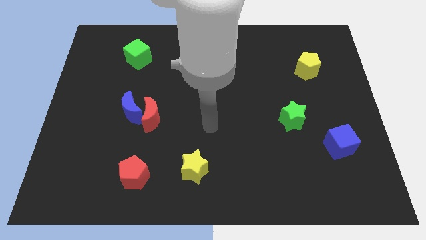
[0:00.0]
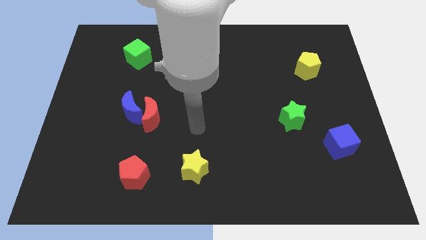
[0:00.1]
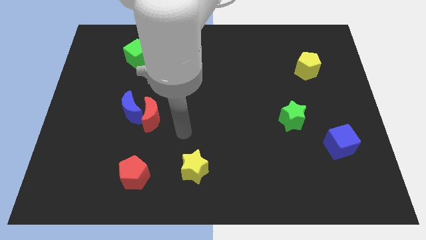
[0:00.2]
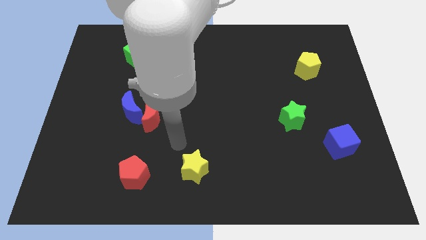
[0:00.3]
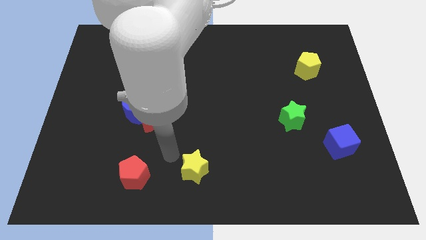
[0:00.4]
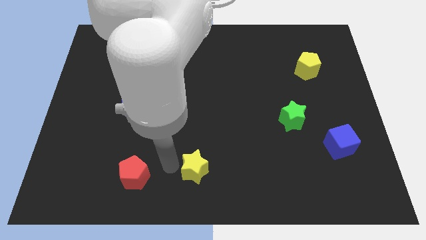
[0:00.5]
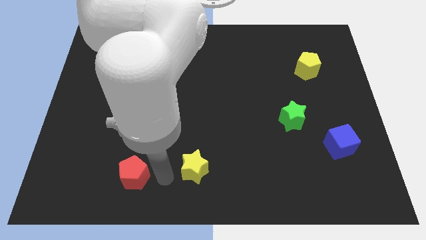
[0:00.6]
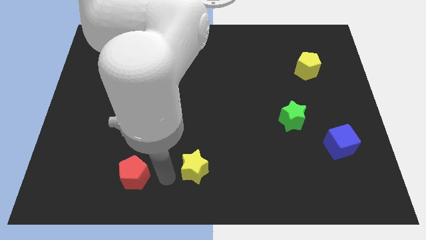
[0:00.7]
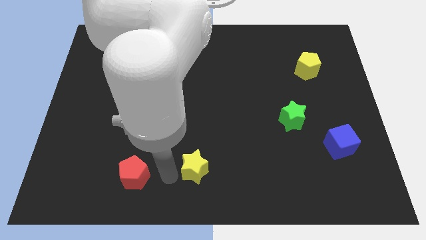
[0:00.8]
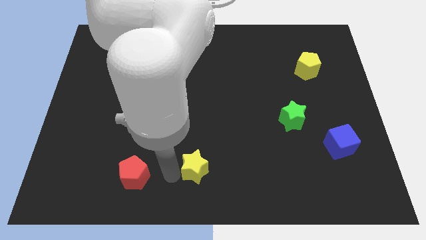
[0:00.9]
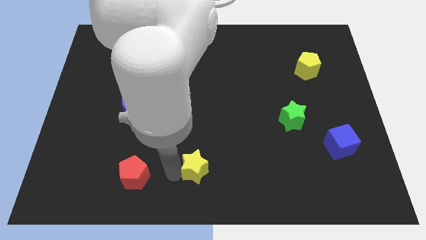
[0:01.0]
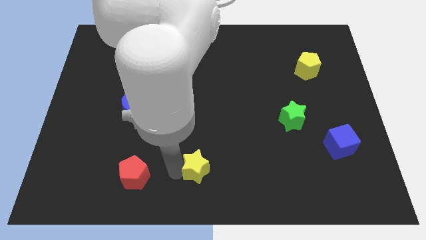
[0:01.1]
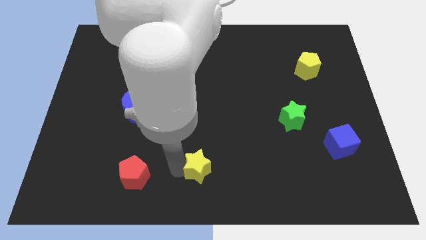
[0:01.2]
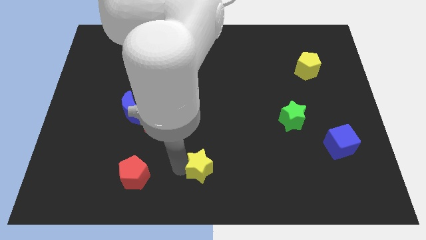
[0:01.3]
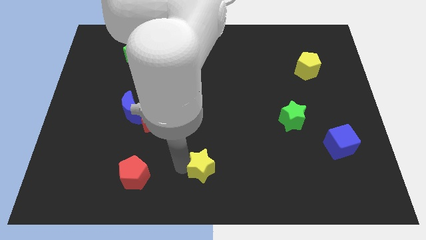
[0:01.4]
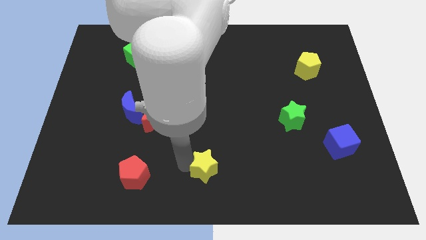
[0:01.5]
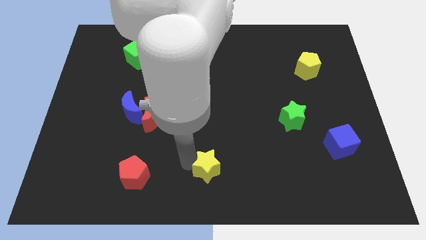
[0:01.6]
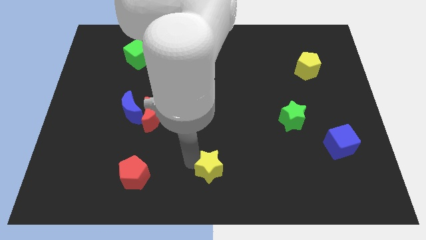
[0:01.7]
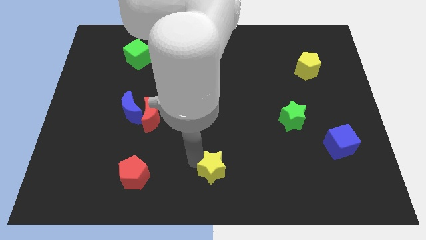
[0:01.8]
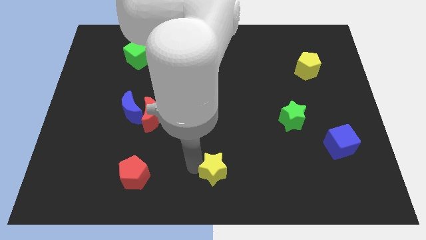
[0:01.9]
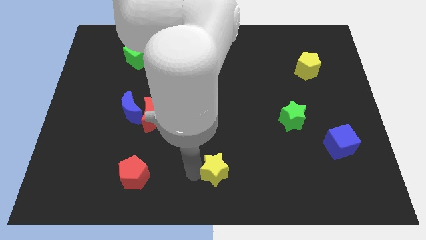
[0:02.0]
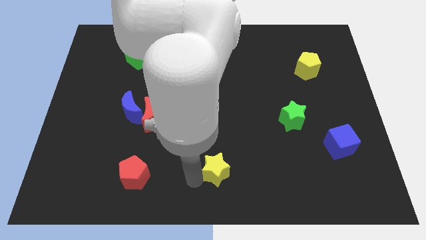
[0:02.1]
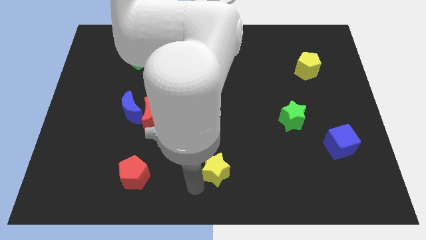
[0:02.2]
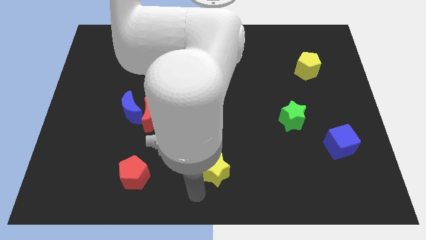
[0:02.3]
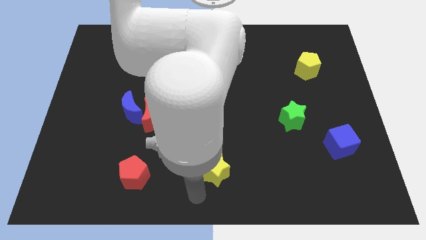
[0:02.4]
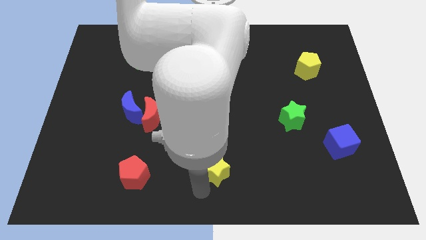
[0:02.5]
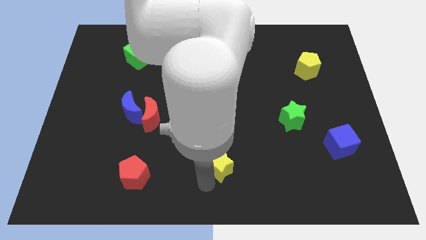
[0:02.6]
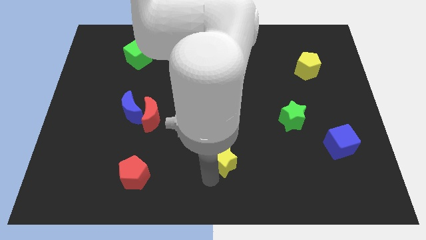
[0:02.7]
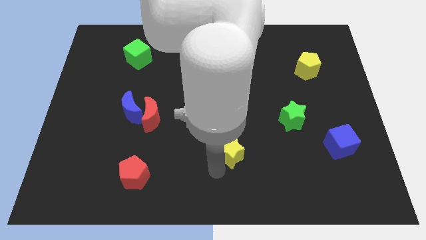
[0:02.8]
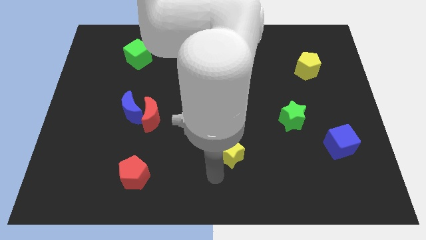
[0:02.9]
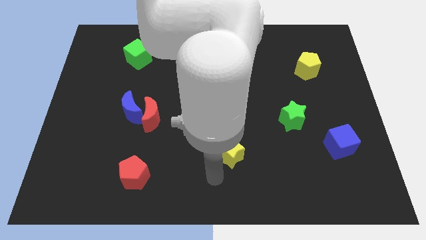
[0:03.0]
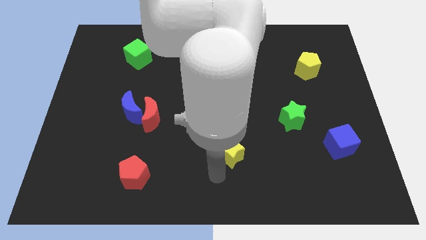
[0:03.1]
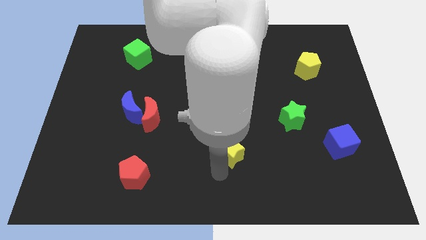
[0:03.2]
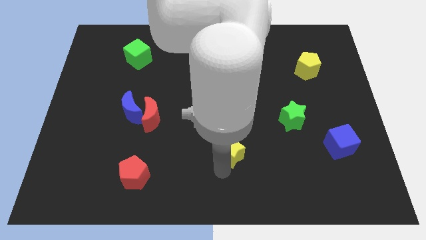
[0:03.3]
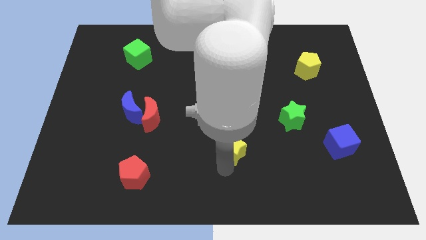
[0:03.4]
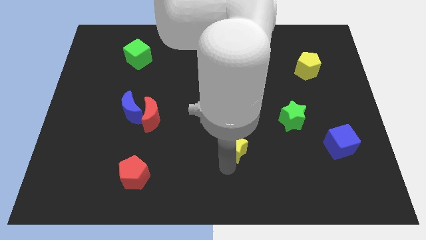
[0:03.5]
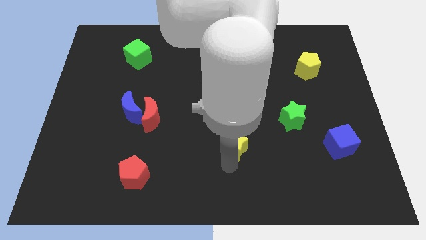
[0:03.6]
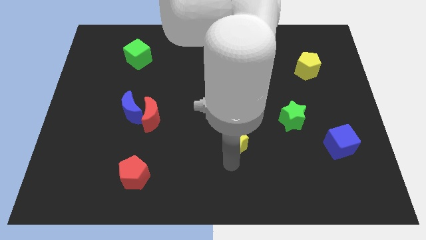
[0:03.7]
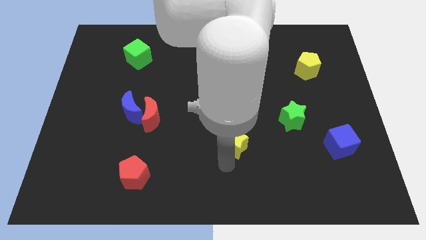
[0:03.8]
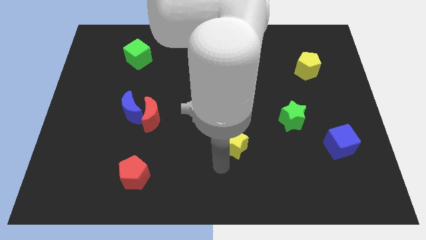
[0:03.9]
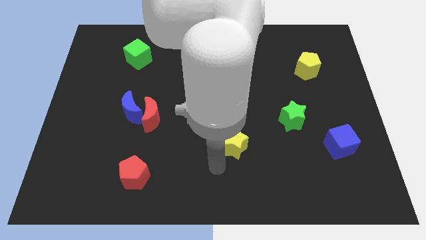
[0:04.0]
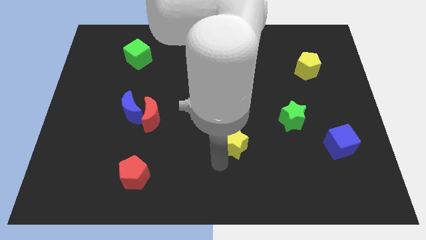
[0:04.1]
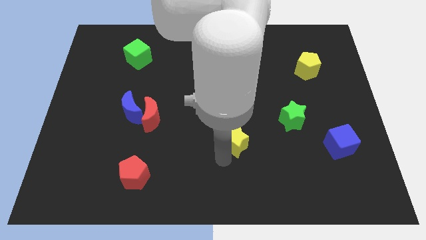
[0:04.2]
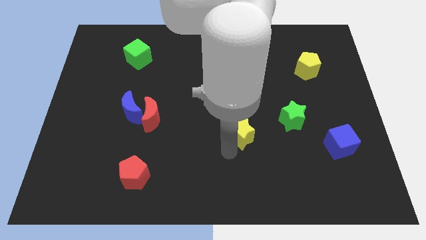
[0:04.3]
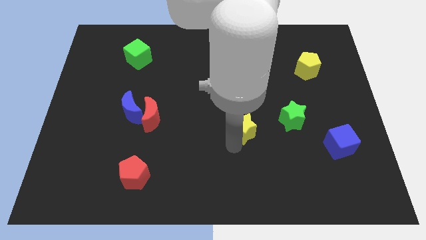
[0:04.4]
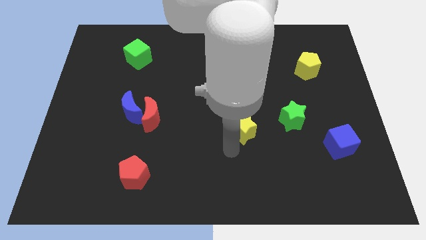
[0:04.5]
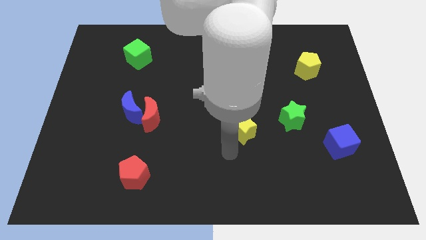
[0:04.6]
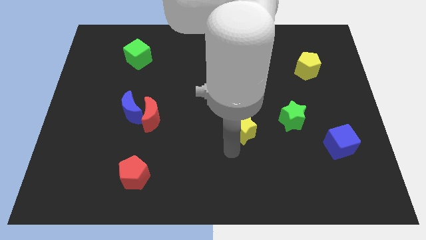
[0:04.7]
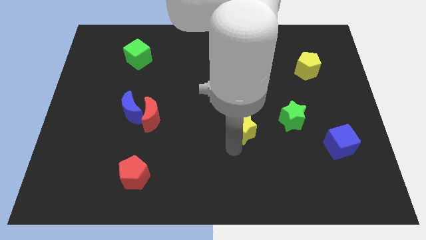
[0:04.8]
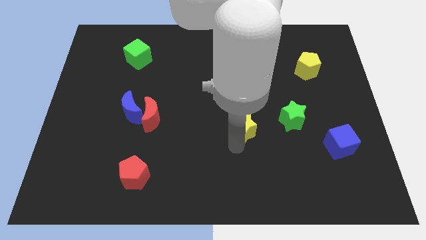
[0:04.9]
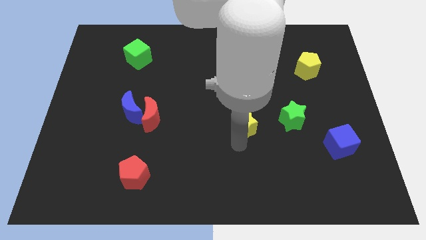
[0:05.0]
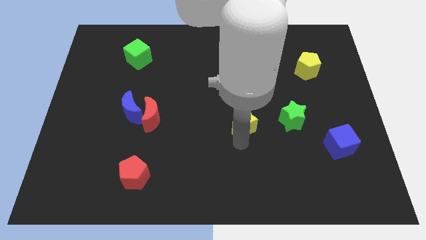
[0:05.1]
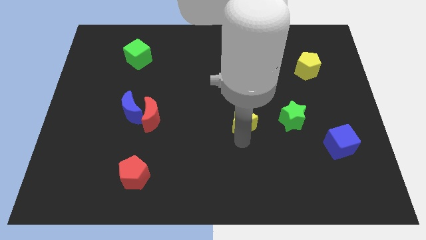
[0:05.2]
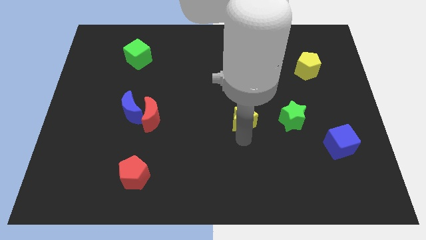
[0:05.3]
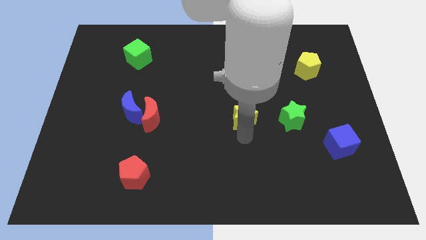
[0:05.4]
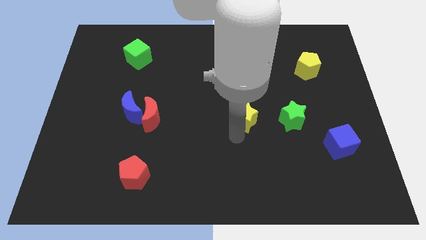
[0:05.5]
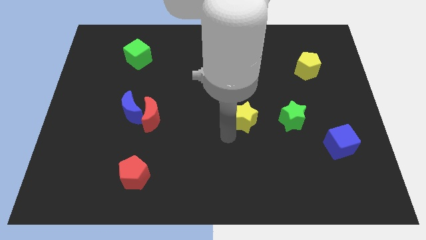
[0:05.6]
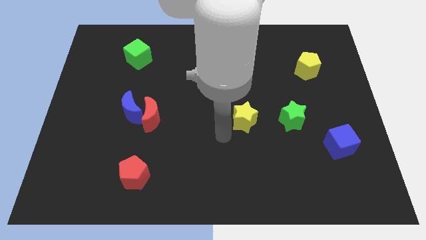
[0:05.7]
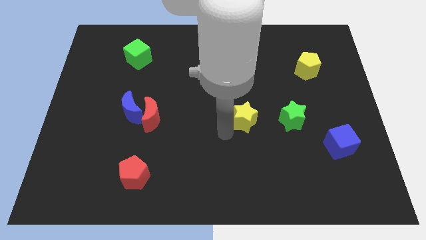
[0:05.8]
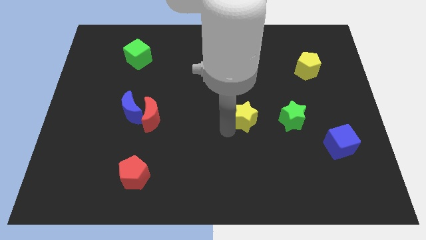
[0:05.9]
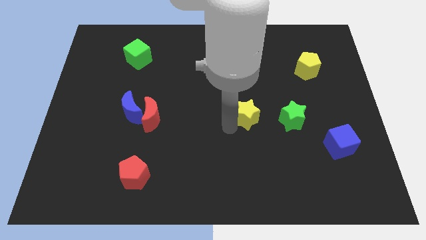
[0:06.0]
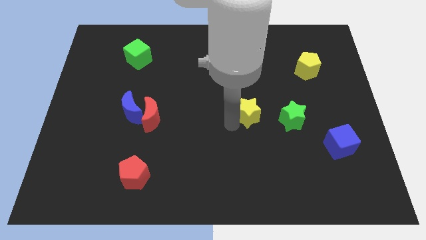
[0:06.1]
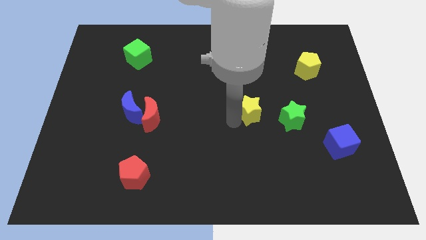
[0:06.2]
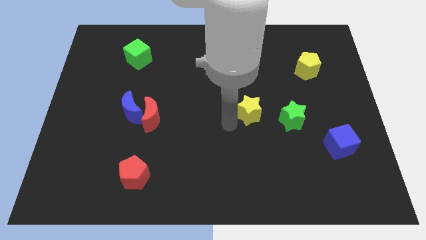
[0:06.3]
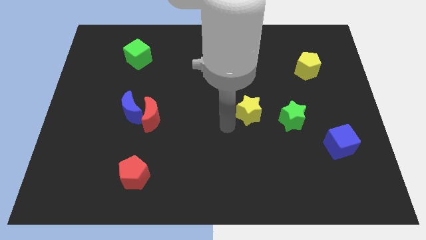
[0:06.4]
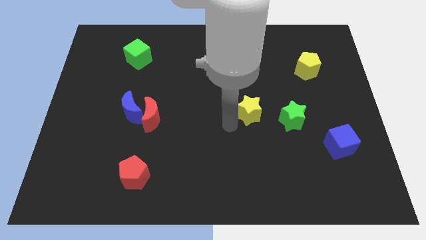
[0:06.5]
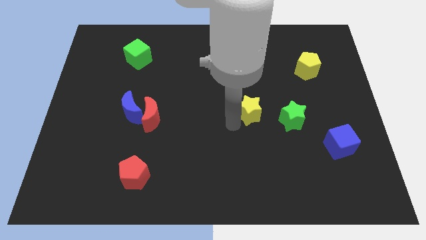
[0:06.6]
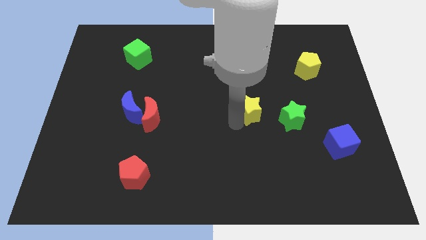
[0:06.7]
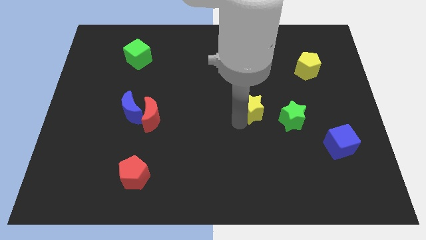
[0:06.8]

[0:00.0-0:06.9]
move the yellow star upwards and to the right diagonally

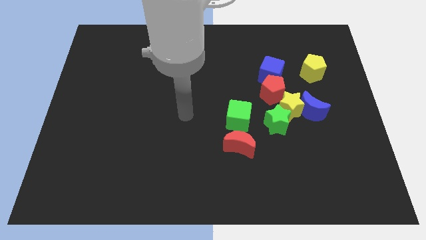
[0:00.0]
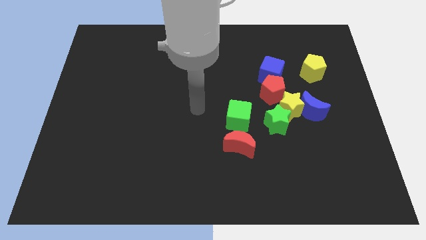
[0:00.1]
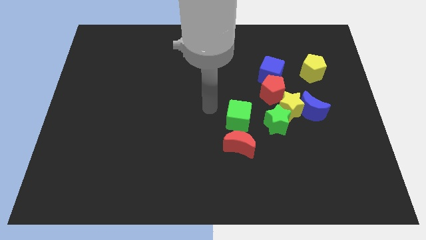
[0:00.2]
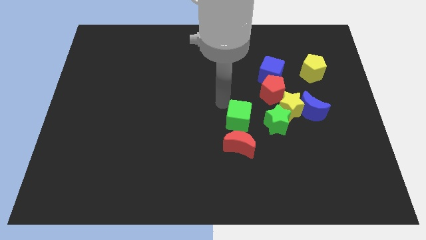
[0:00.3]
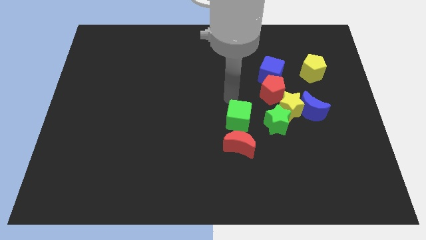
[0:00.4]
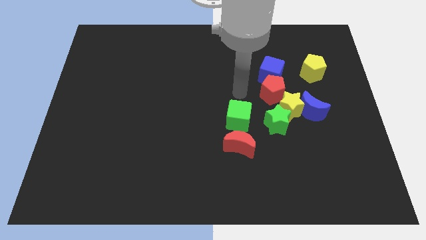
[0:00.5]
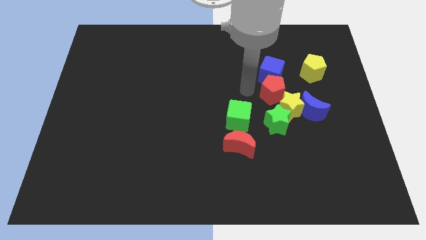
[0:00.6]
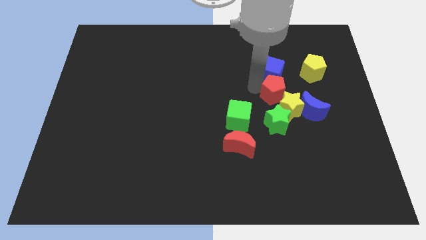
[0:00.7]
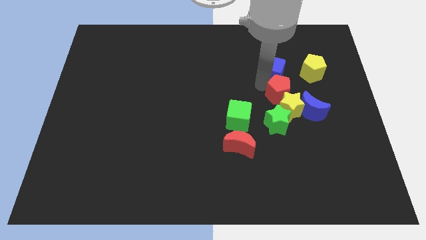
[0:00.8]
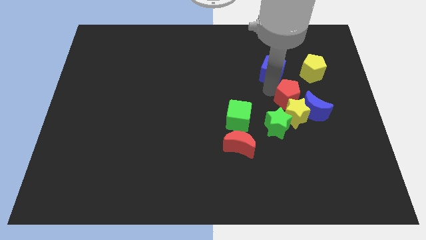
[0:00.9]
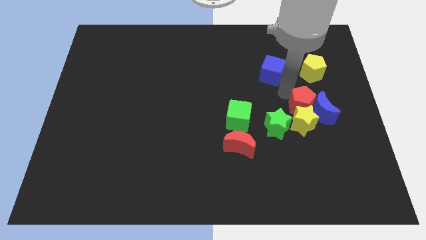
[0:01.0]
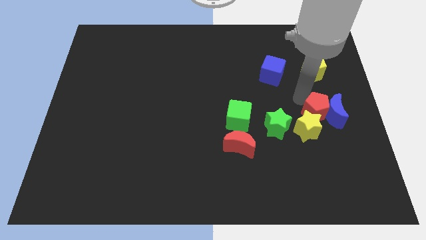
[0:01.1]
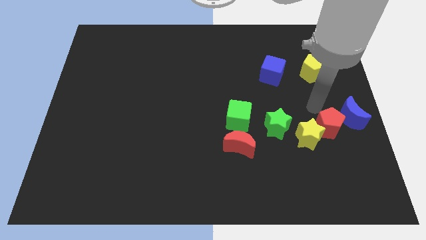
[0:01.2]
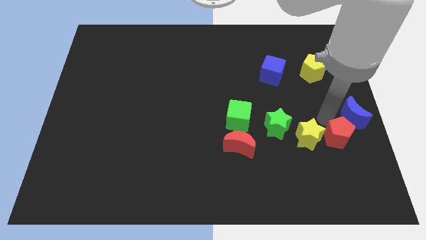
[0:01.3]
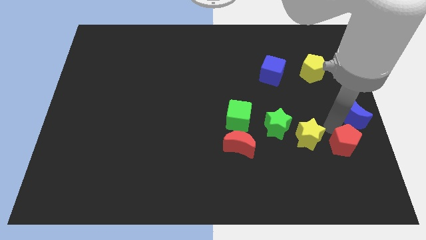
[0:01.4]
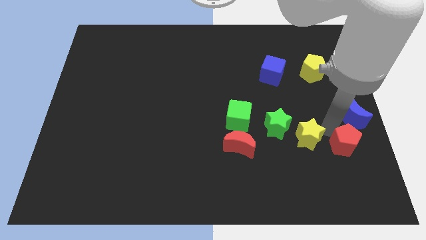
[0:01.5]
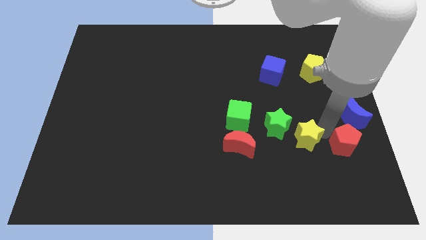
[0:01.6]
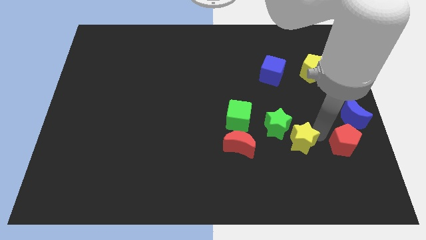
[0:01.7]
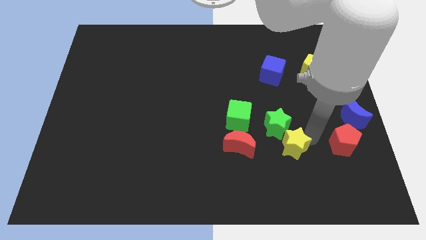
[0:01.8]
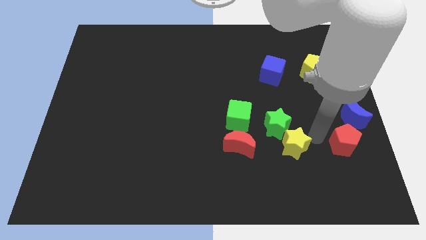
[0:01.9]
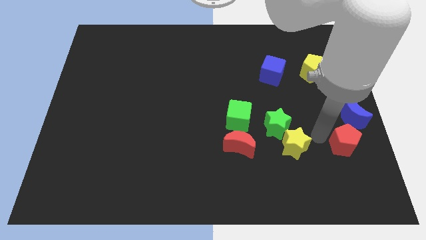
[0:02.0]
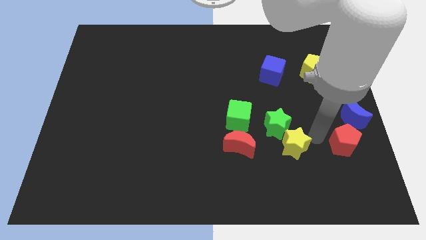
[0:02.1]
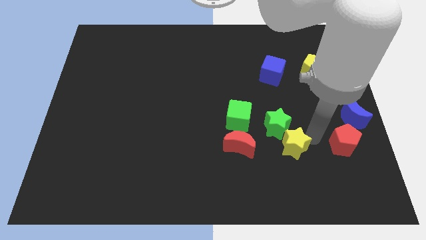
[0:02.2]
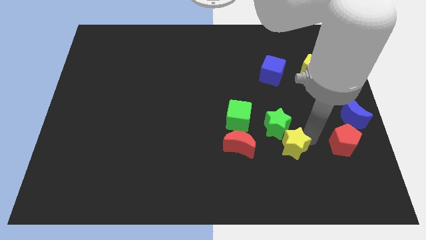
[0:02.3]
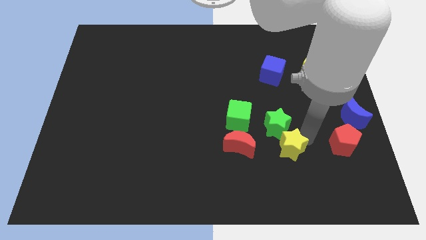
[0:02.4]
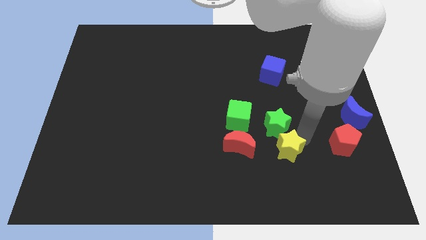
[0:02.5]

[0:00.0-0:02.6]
move the yellow star diagonally down and left a bit
